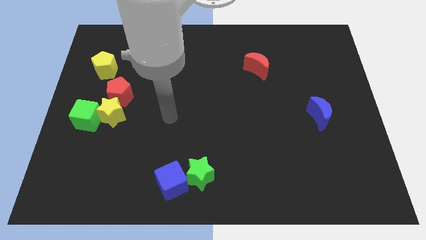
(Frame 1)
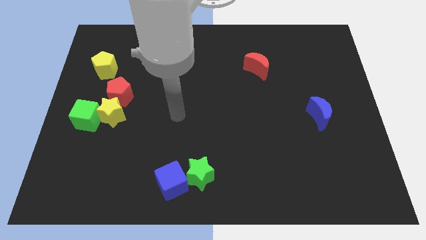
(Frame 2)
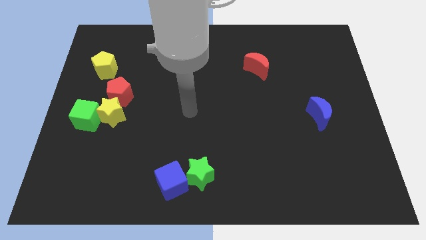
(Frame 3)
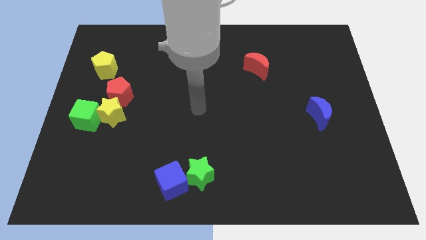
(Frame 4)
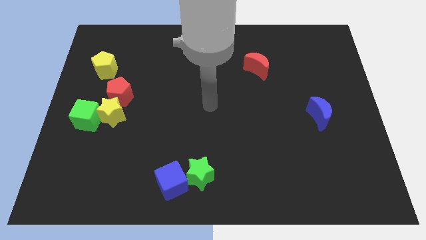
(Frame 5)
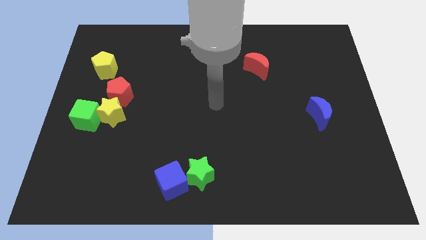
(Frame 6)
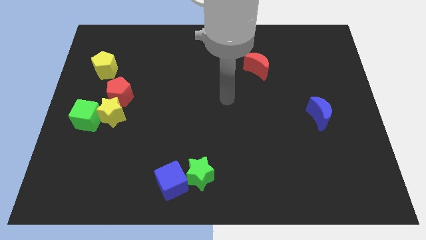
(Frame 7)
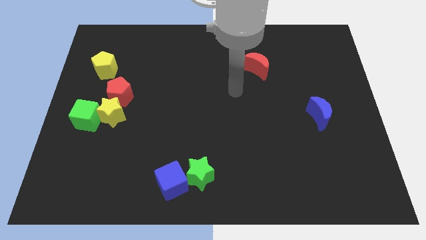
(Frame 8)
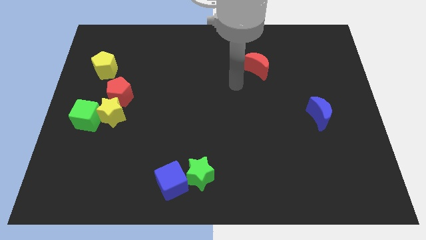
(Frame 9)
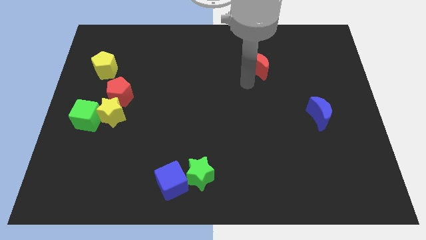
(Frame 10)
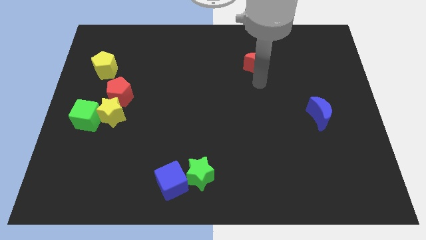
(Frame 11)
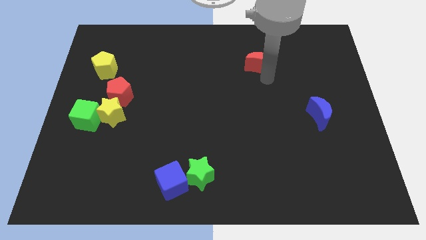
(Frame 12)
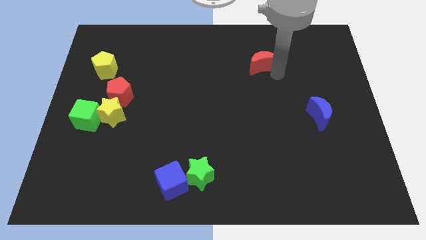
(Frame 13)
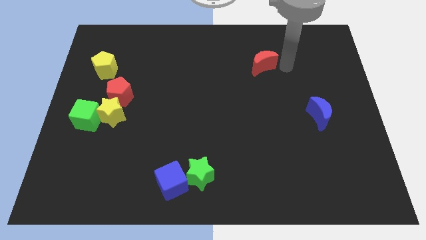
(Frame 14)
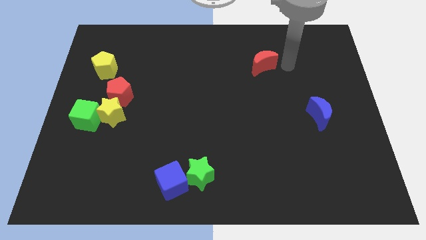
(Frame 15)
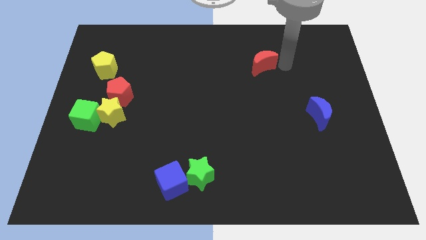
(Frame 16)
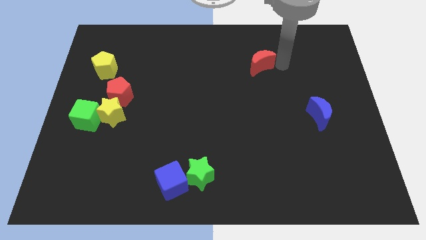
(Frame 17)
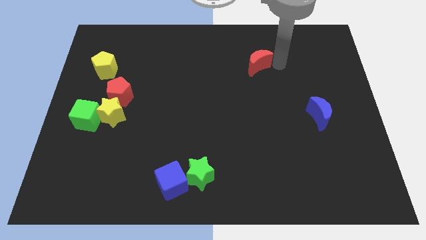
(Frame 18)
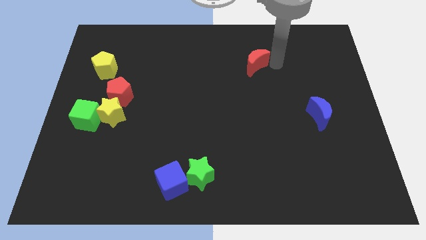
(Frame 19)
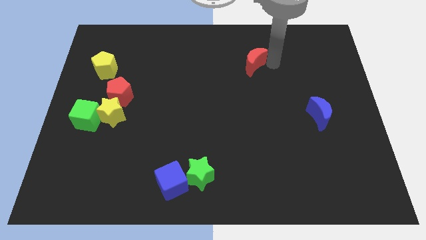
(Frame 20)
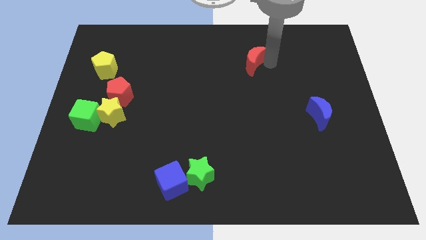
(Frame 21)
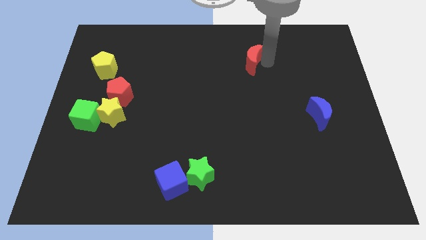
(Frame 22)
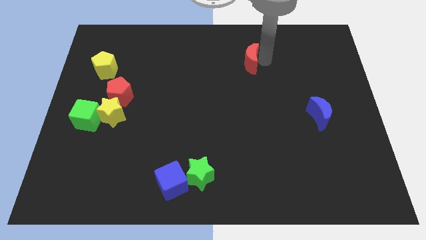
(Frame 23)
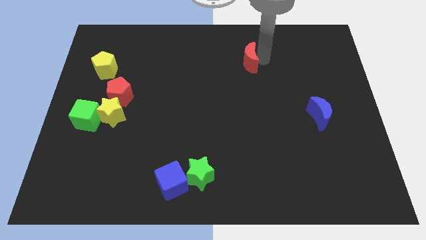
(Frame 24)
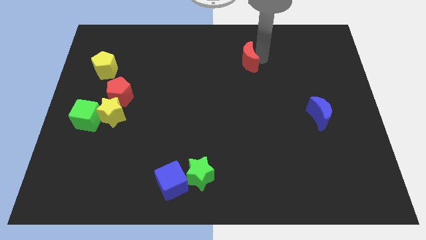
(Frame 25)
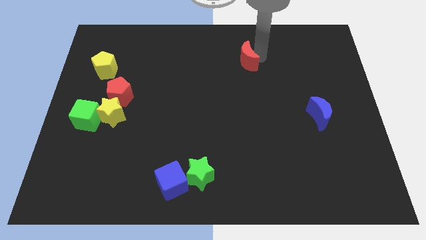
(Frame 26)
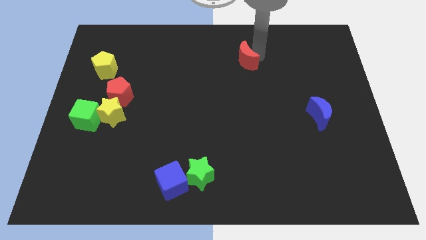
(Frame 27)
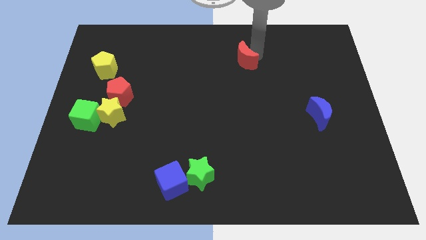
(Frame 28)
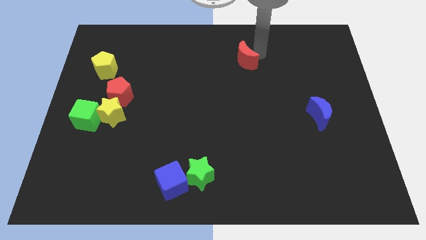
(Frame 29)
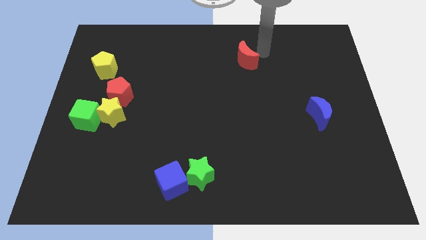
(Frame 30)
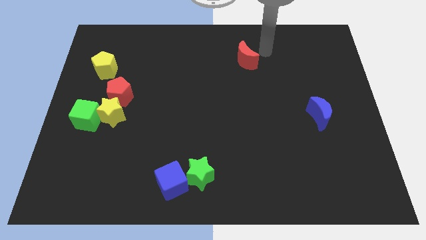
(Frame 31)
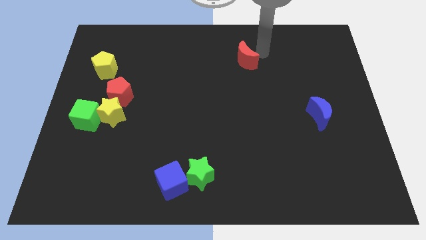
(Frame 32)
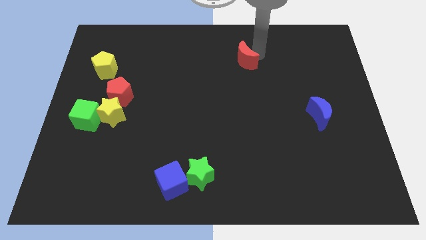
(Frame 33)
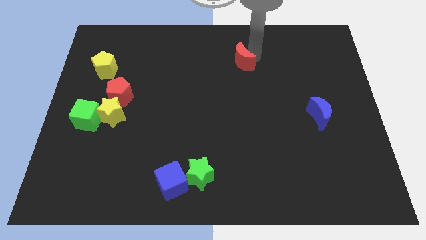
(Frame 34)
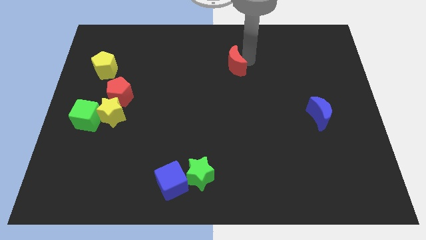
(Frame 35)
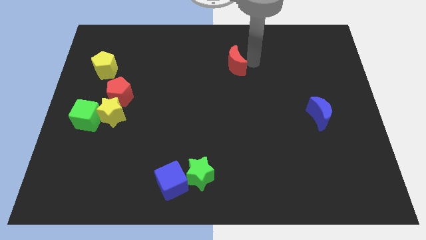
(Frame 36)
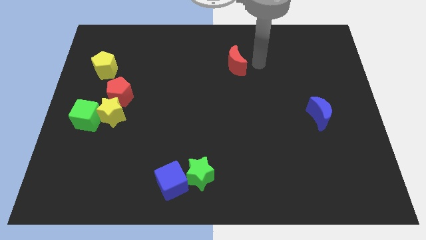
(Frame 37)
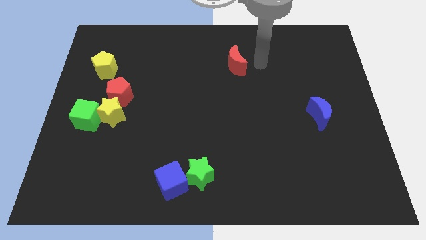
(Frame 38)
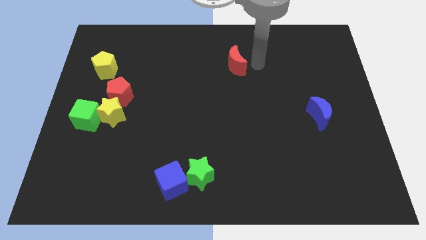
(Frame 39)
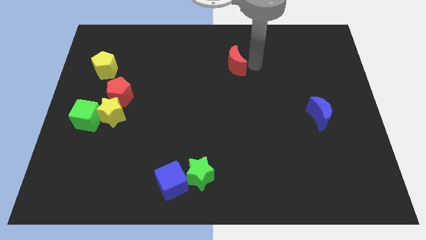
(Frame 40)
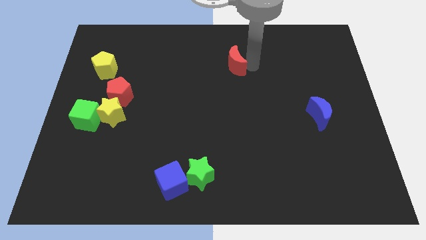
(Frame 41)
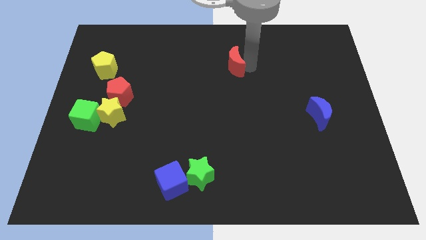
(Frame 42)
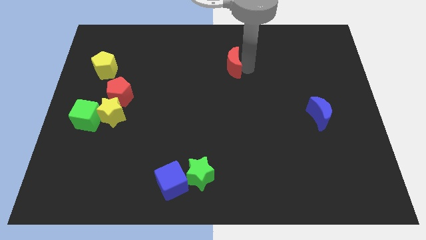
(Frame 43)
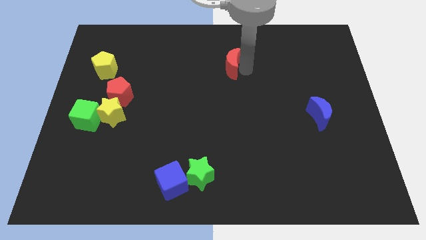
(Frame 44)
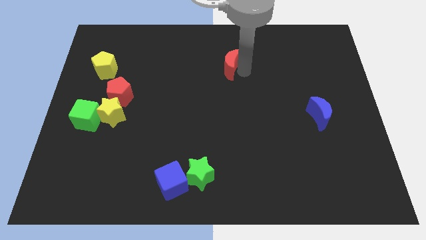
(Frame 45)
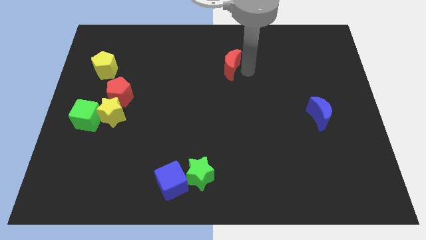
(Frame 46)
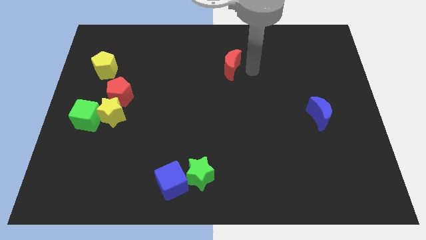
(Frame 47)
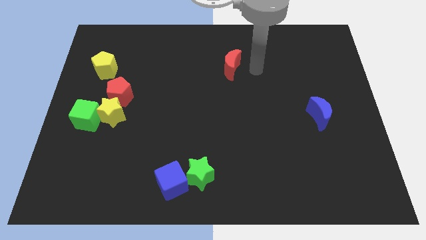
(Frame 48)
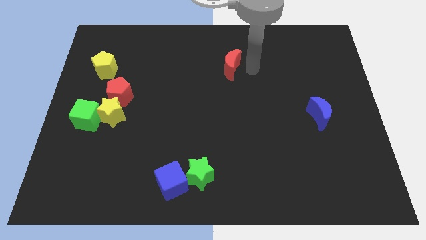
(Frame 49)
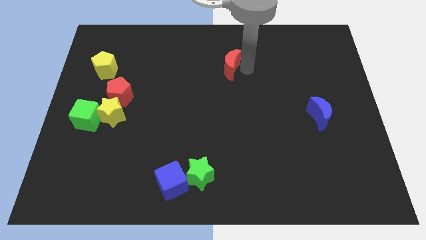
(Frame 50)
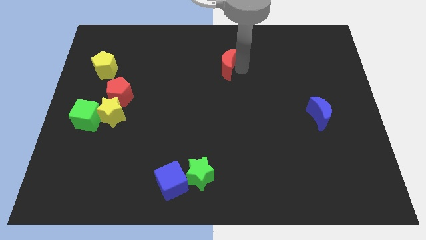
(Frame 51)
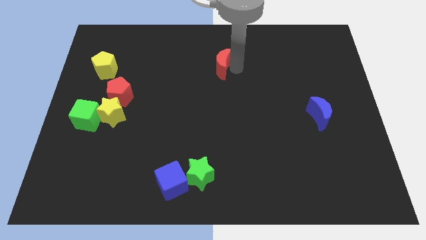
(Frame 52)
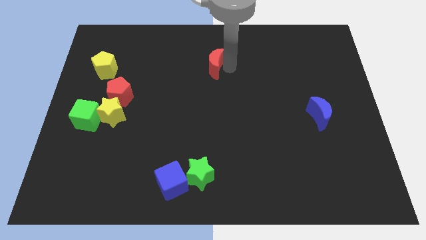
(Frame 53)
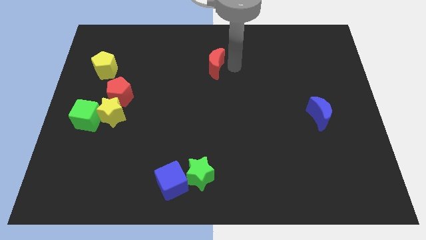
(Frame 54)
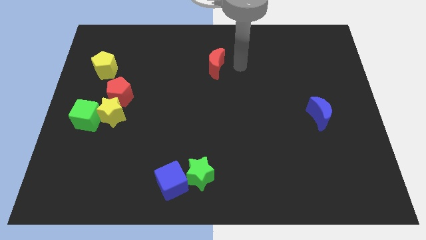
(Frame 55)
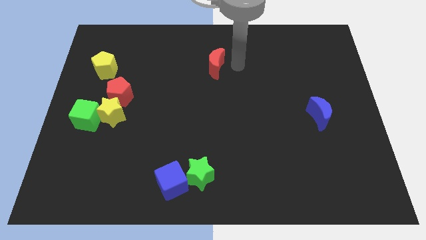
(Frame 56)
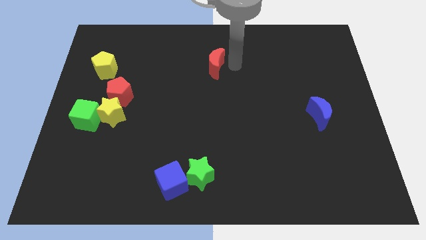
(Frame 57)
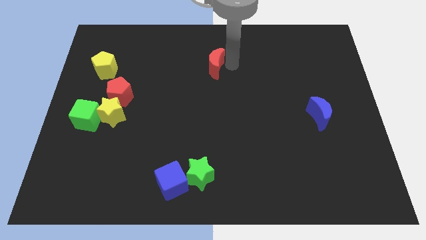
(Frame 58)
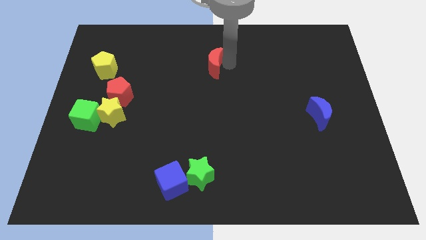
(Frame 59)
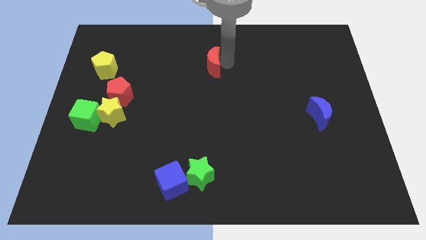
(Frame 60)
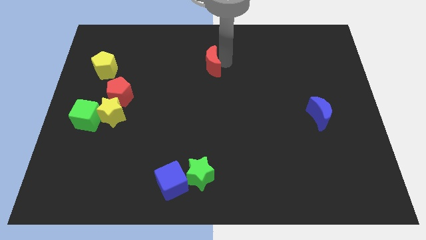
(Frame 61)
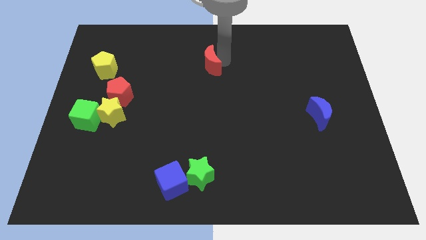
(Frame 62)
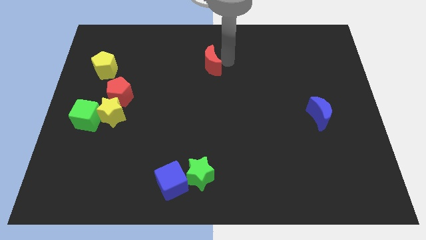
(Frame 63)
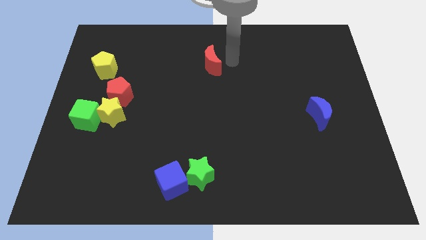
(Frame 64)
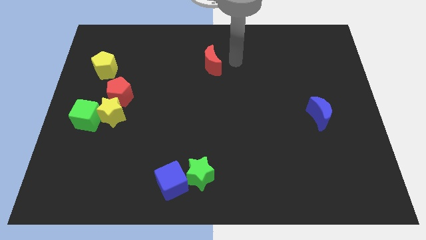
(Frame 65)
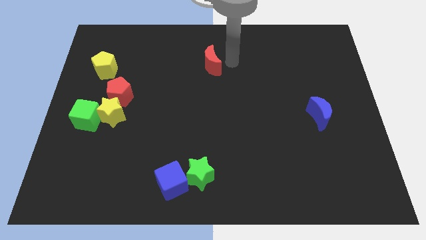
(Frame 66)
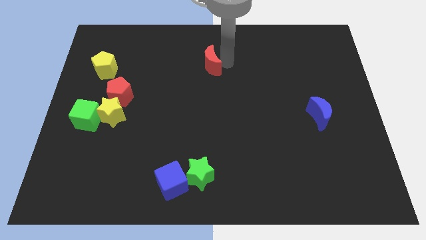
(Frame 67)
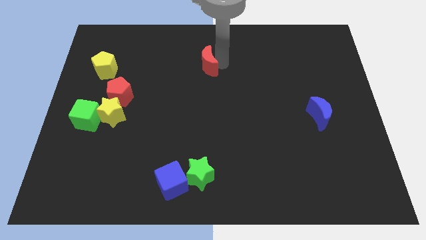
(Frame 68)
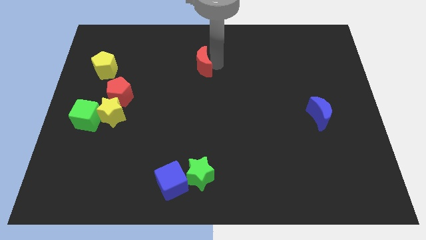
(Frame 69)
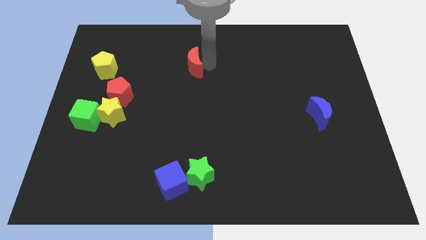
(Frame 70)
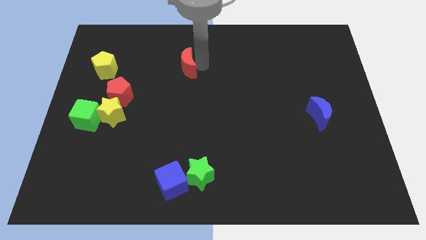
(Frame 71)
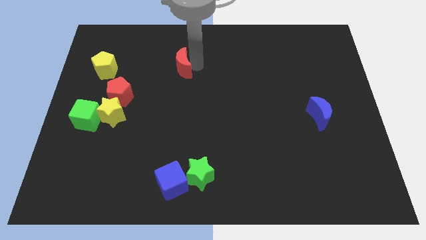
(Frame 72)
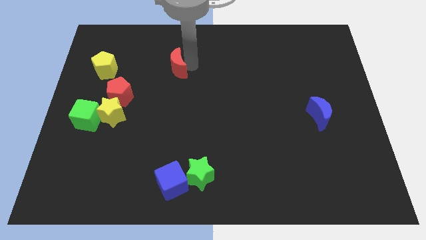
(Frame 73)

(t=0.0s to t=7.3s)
slide the red moon to the left

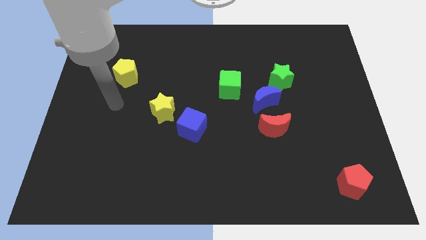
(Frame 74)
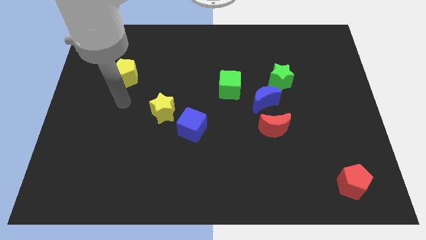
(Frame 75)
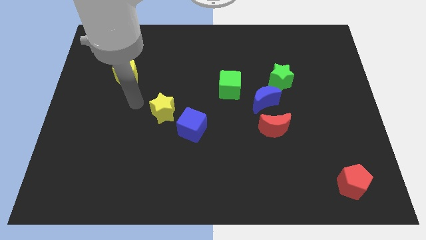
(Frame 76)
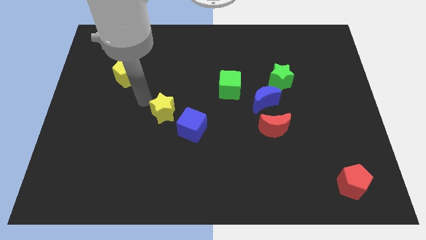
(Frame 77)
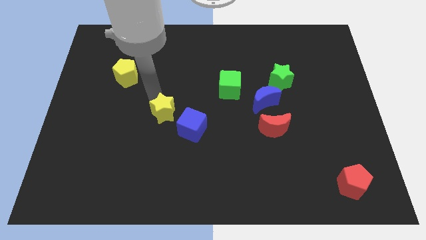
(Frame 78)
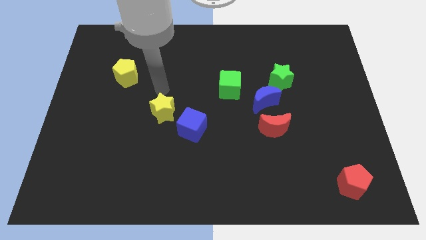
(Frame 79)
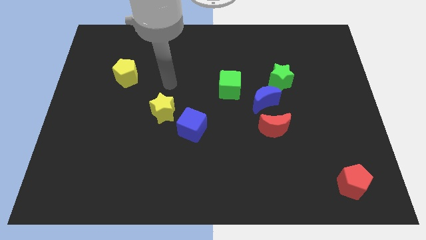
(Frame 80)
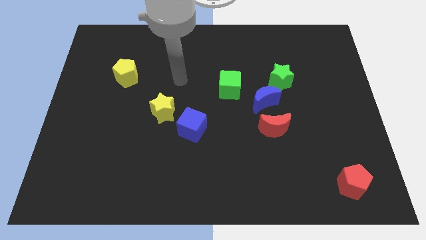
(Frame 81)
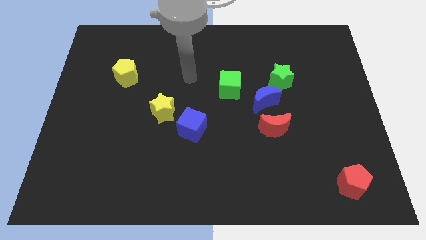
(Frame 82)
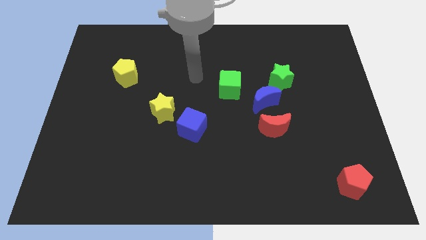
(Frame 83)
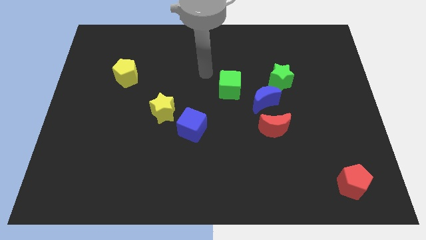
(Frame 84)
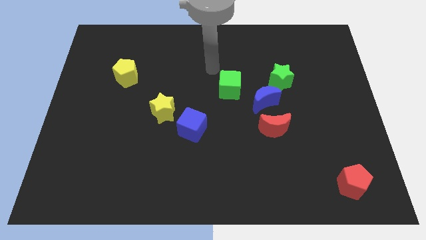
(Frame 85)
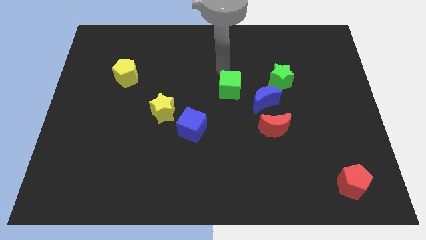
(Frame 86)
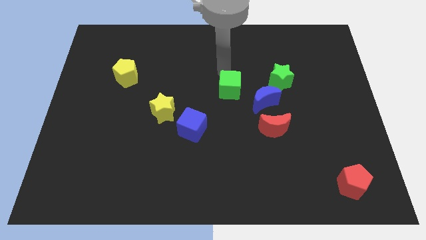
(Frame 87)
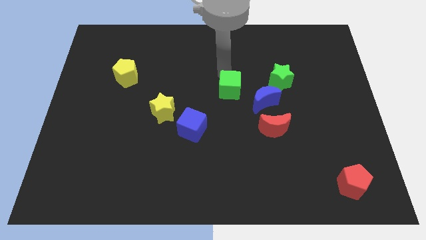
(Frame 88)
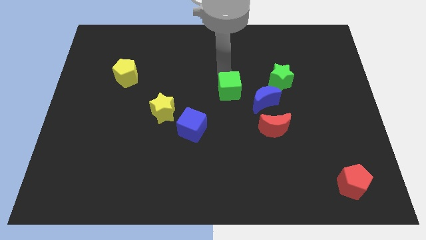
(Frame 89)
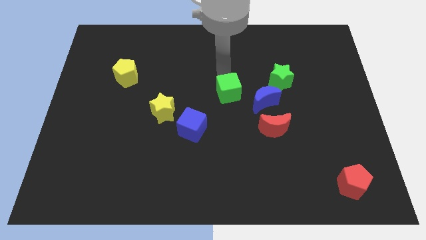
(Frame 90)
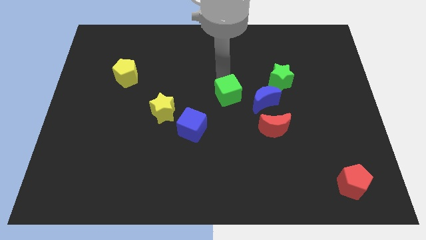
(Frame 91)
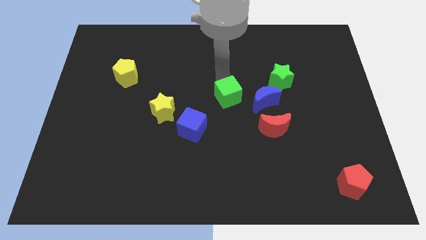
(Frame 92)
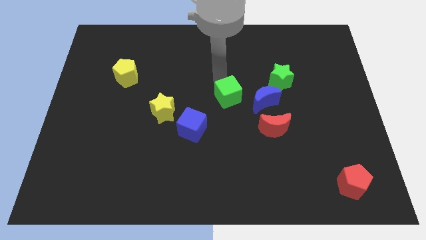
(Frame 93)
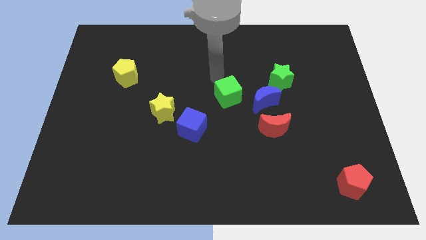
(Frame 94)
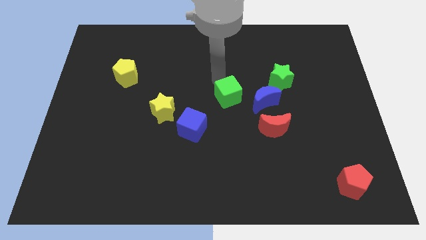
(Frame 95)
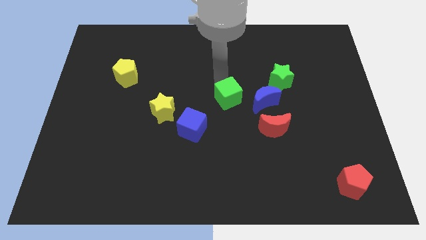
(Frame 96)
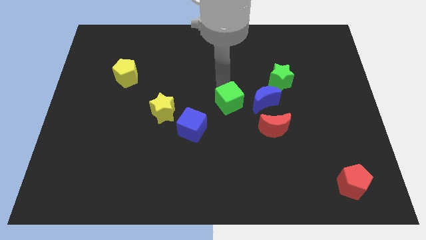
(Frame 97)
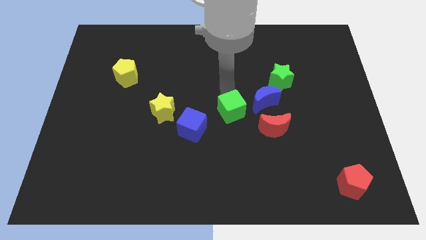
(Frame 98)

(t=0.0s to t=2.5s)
slightly slide the green cube downwards
